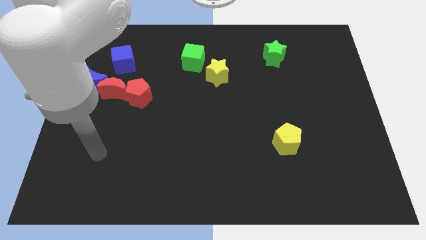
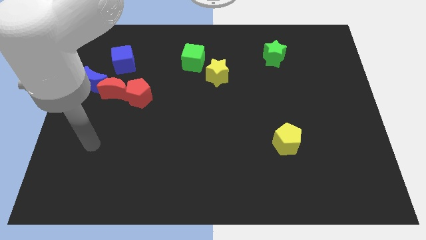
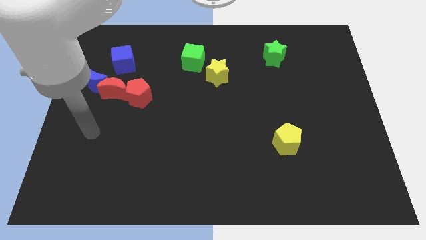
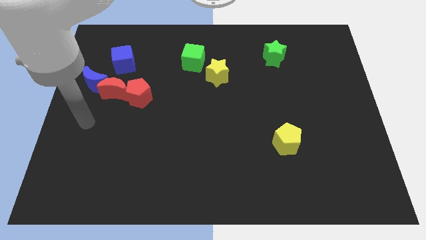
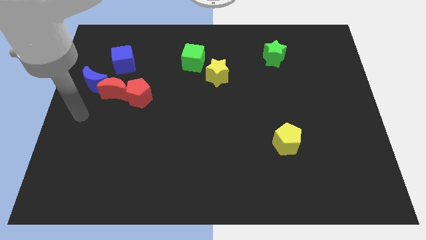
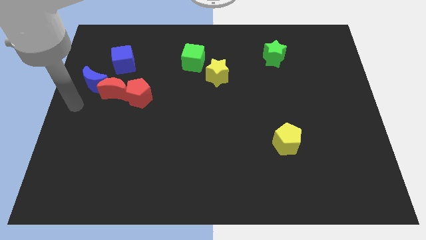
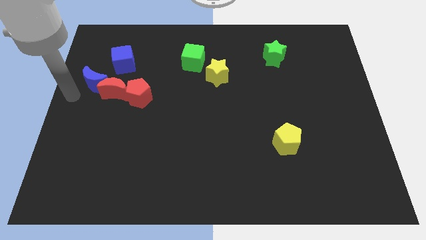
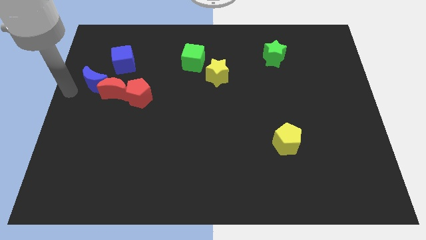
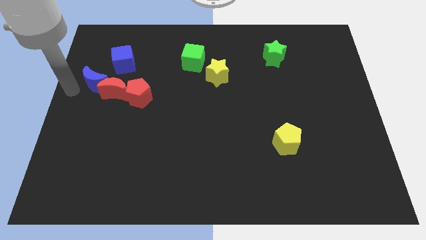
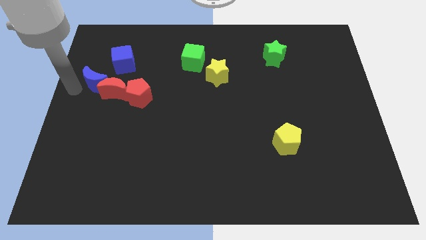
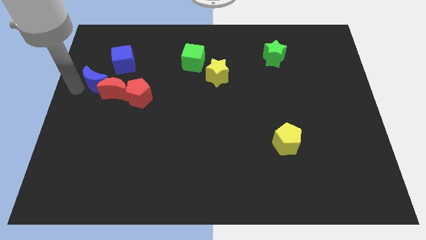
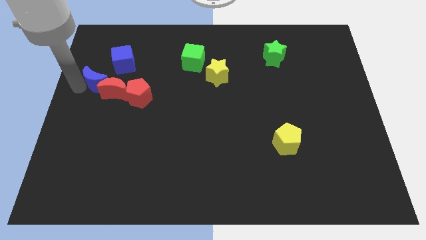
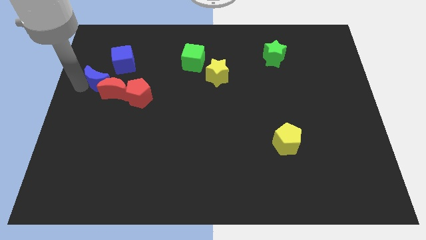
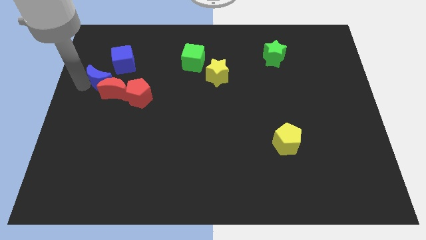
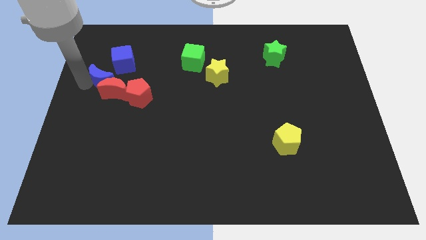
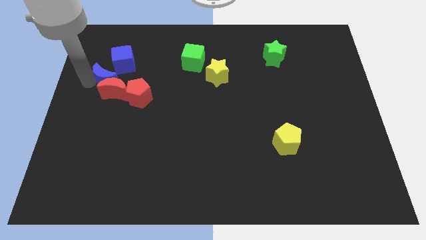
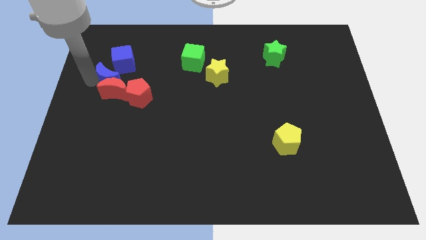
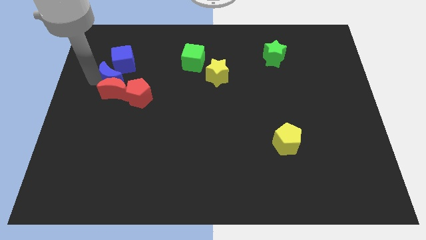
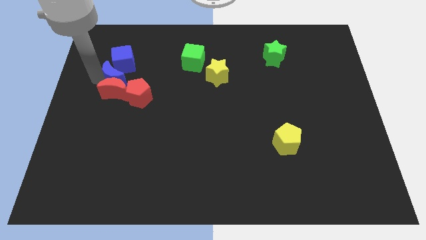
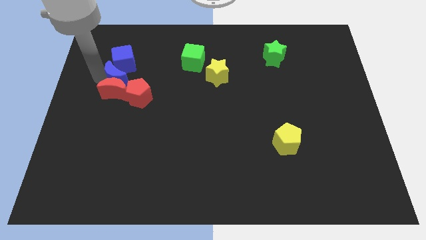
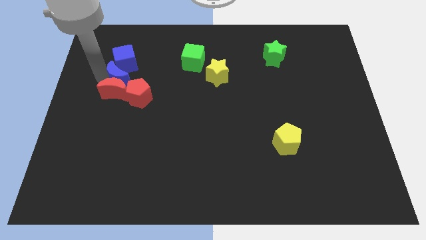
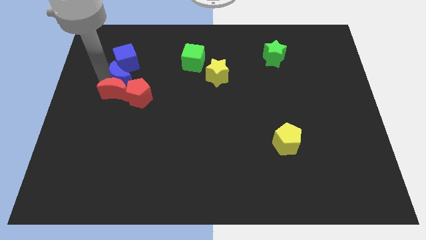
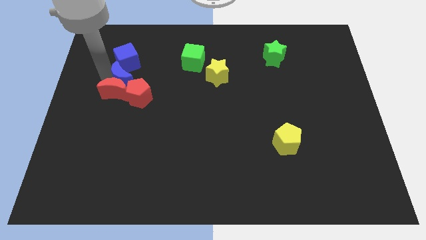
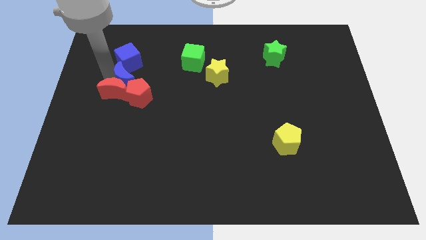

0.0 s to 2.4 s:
slightly push the blue moon to the right

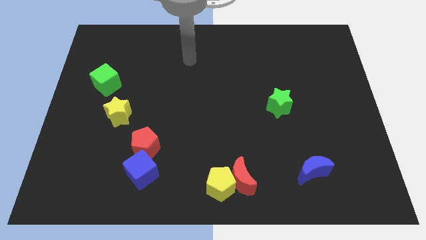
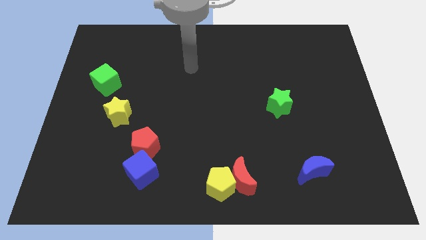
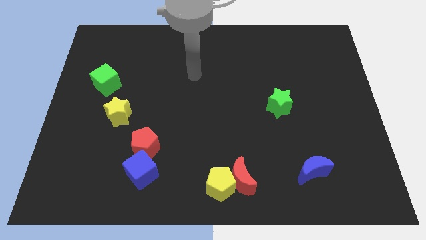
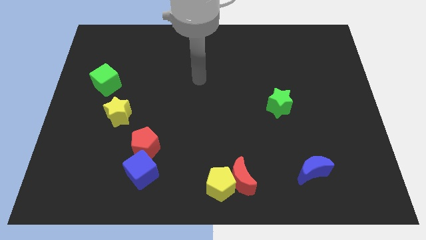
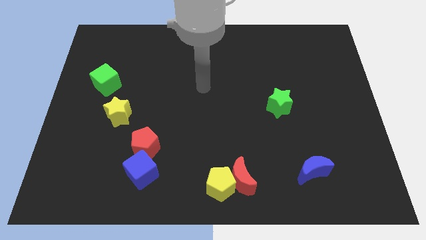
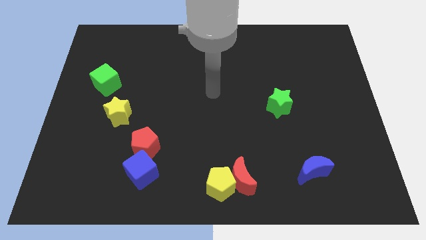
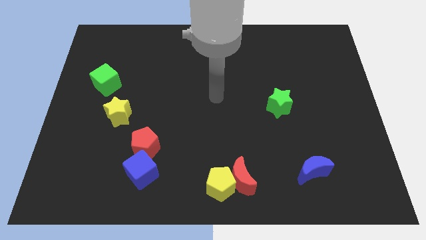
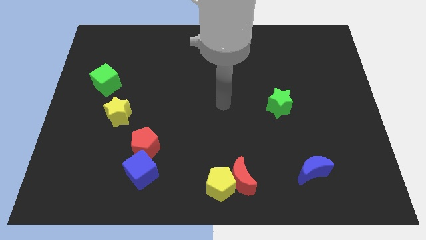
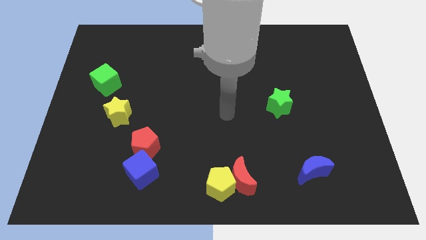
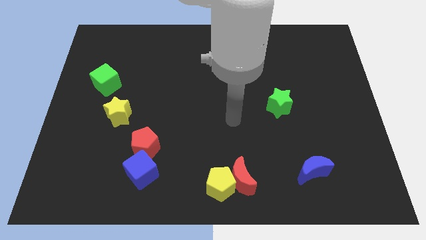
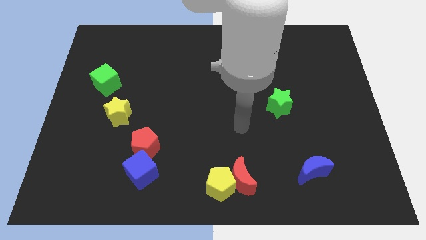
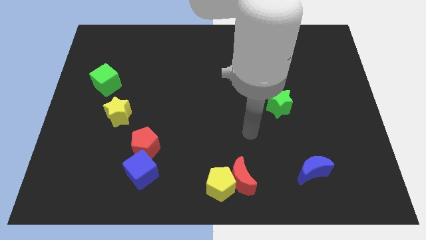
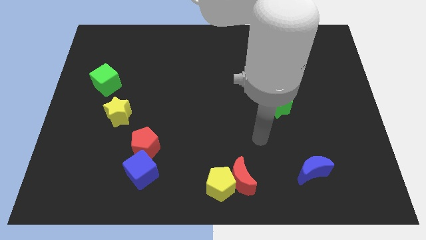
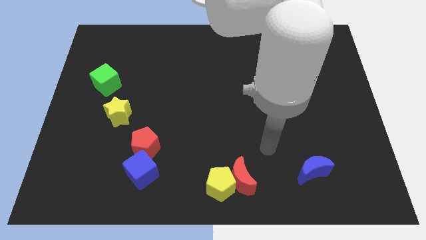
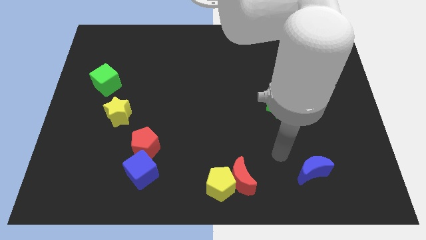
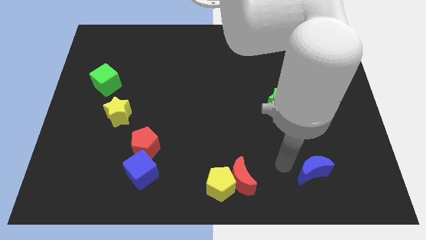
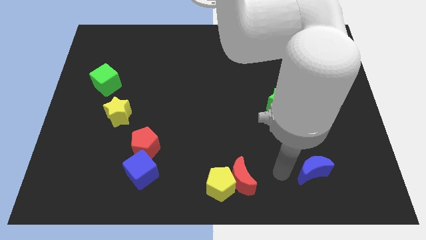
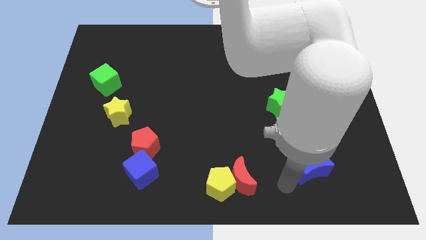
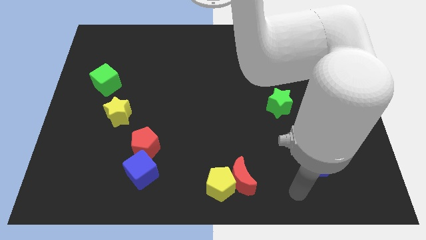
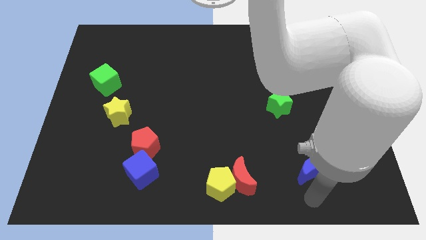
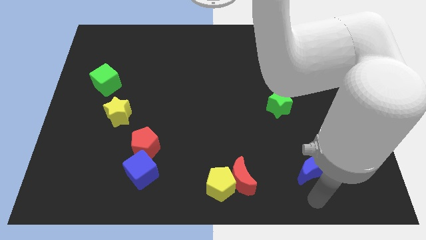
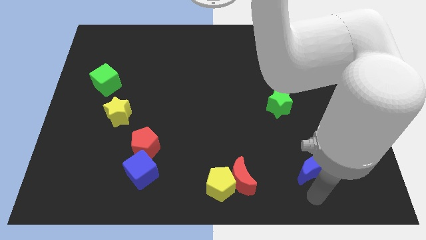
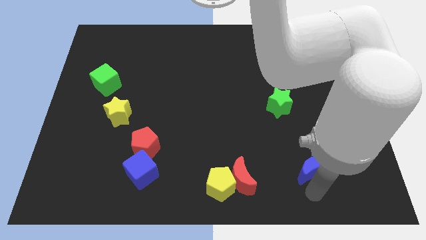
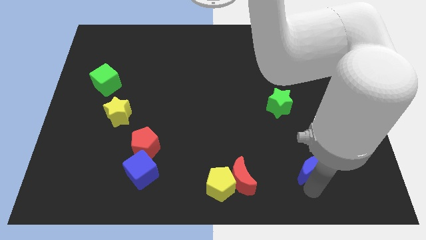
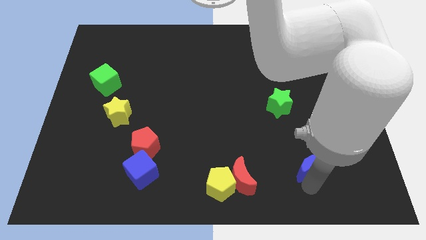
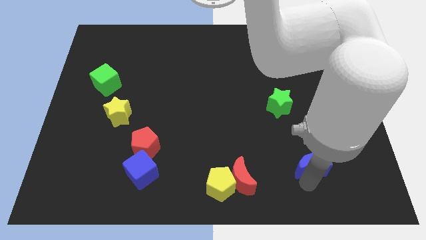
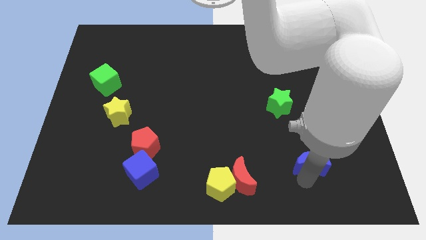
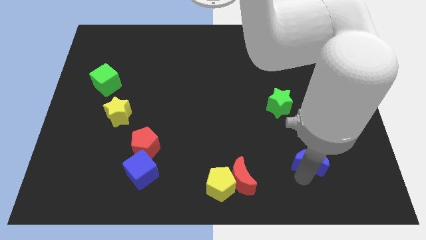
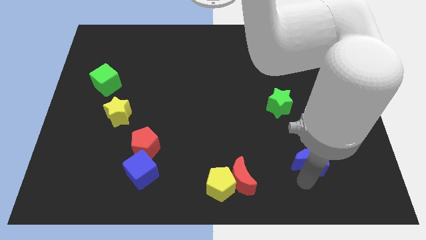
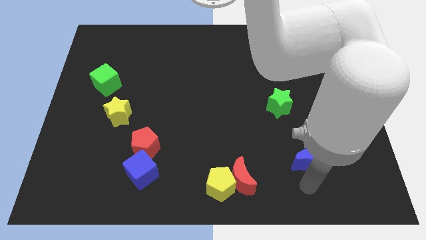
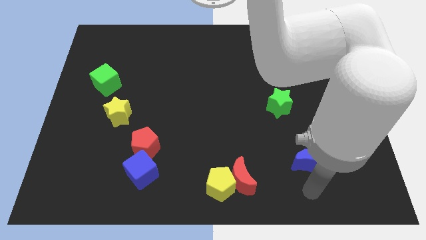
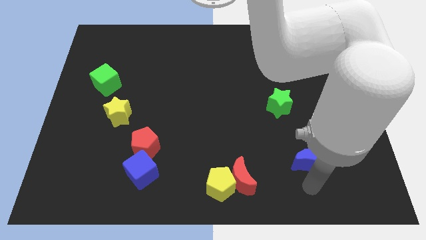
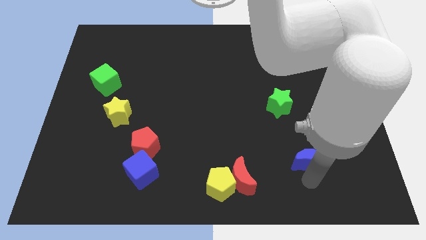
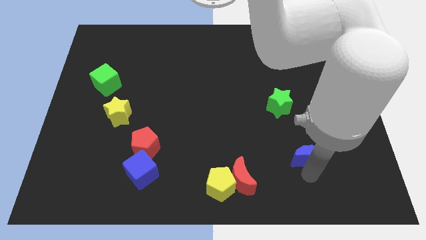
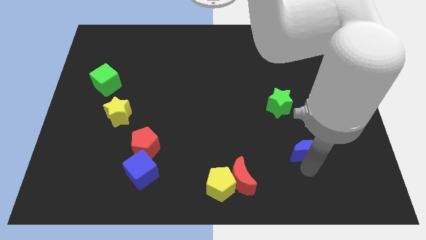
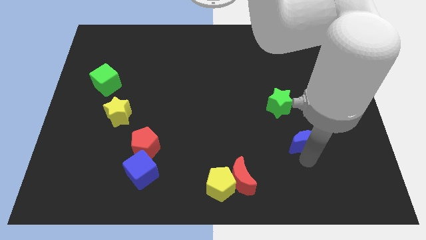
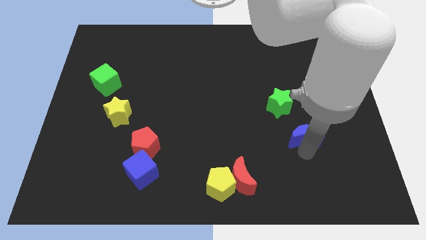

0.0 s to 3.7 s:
slightly push the blue moon up

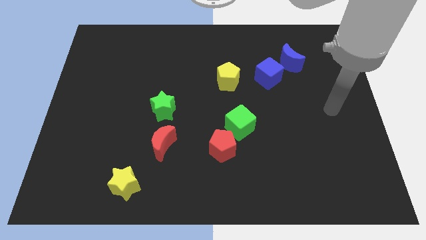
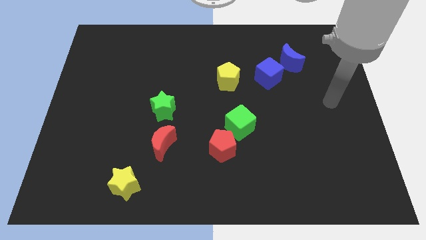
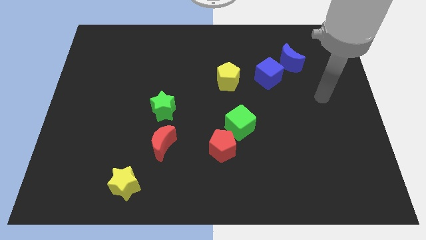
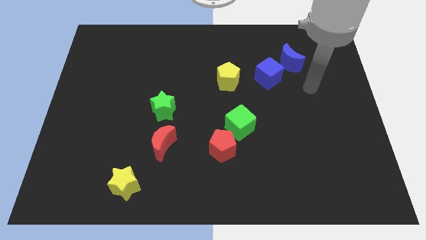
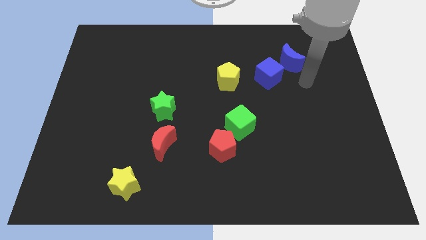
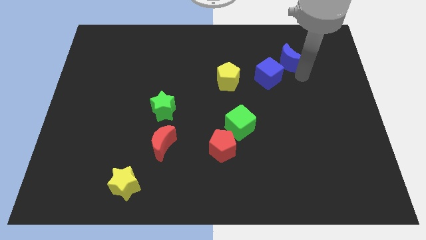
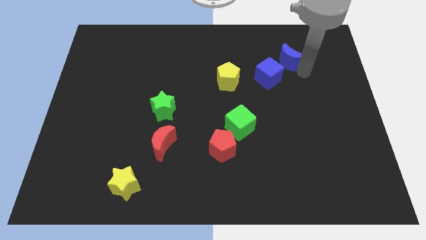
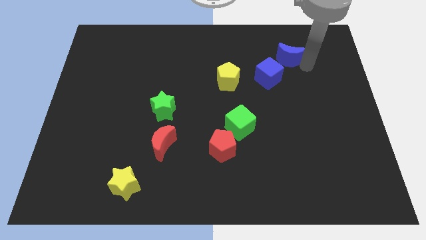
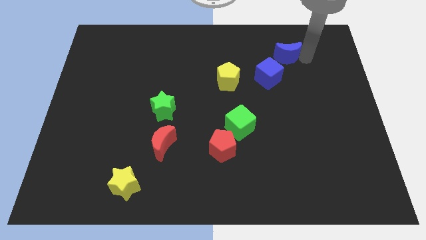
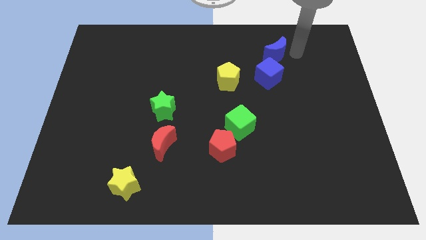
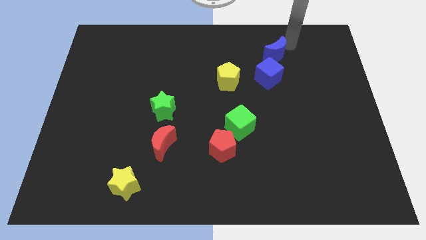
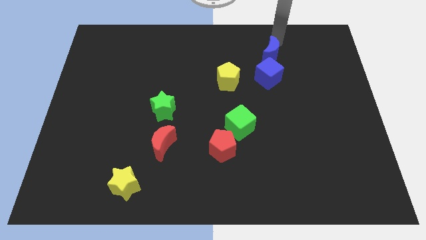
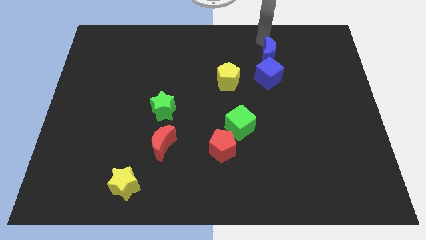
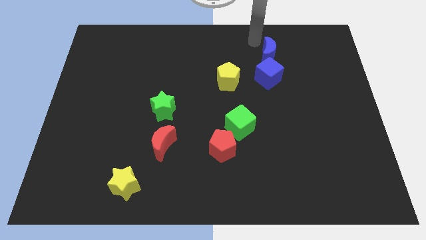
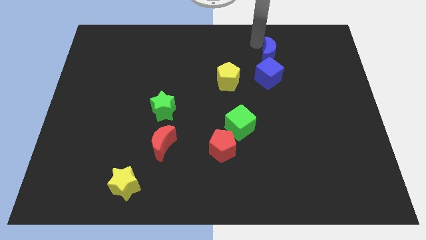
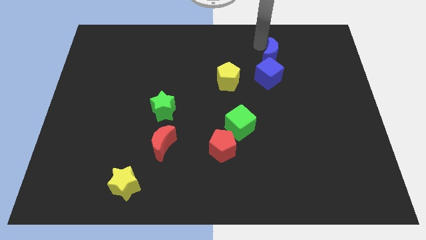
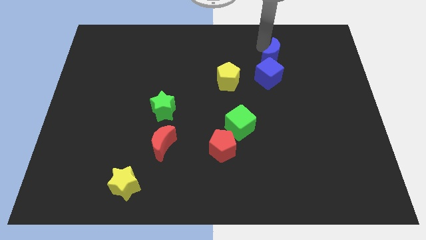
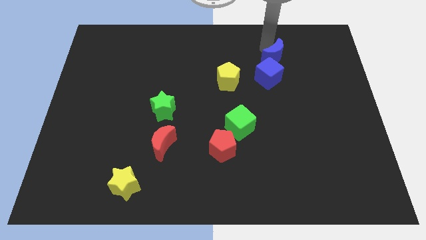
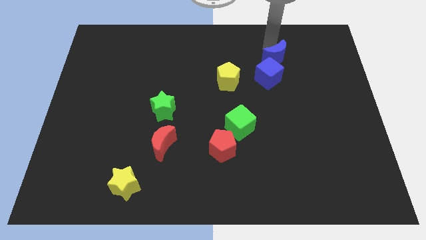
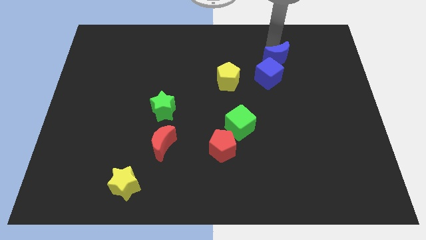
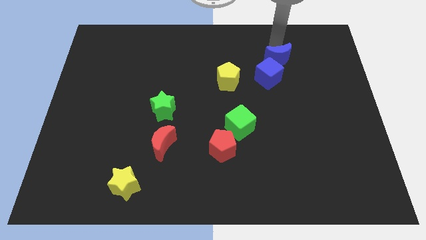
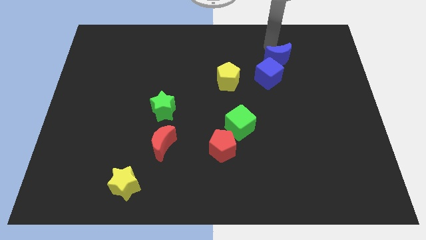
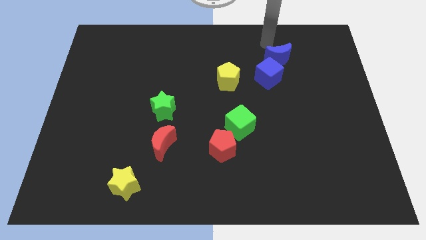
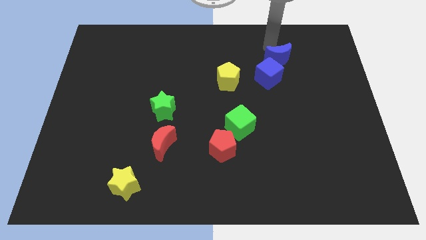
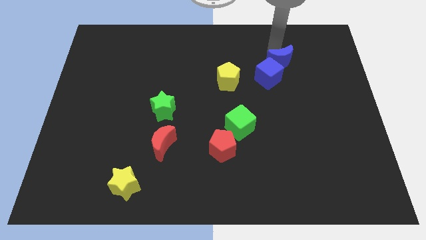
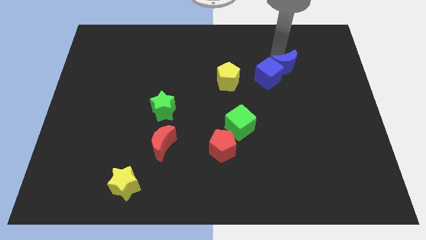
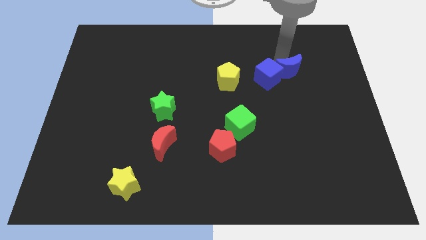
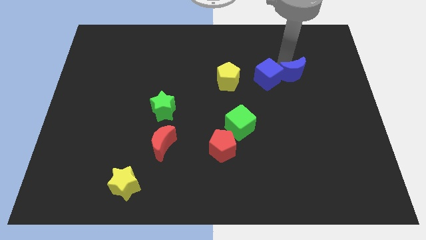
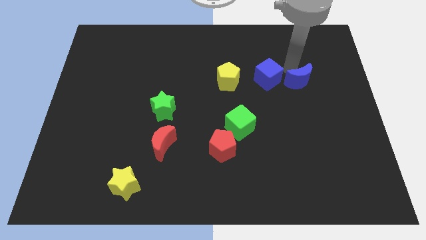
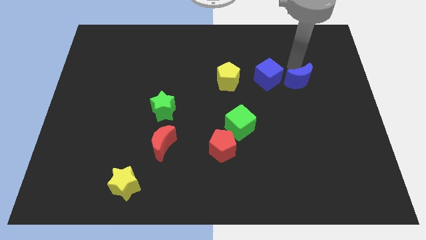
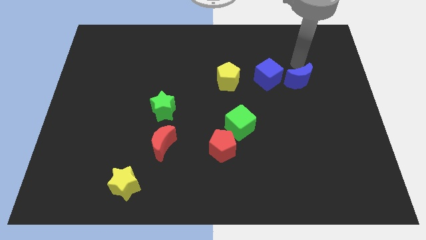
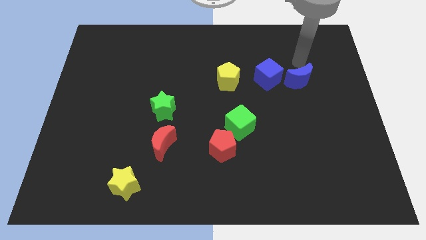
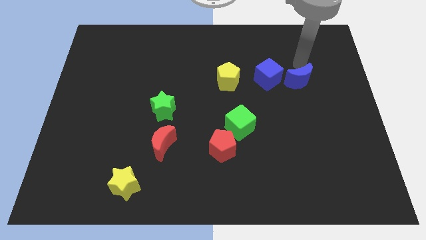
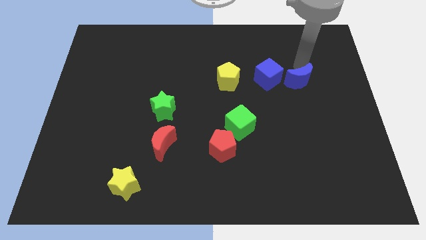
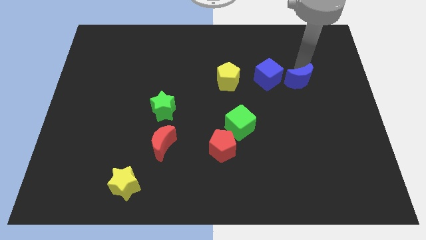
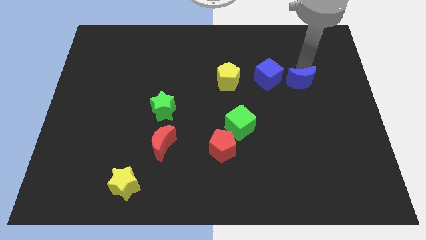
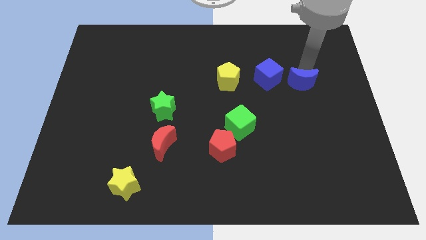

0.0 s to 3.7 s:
slide the blue moon downwards a bit
